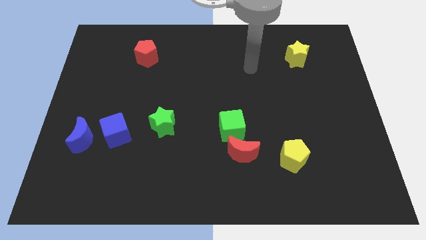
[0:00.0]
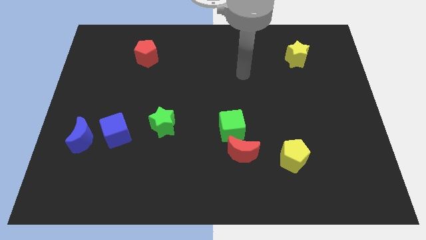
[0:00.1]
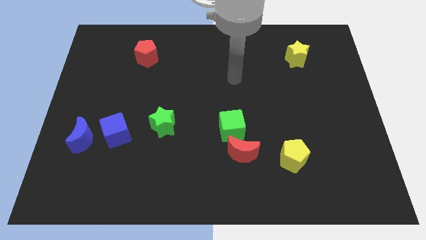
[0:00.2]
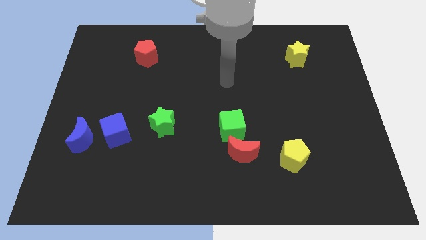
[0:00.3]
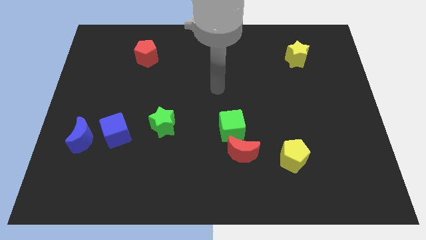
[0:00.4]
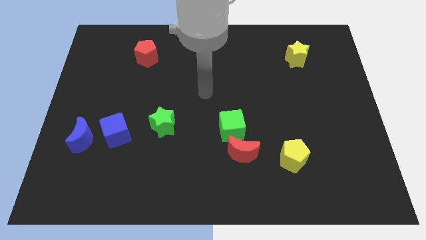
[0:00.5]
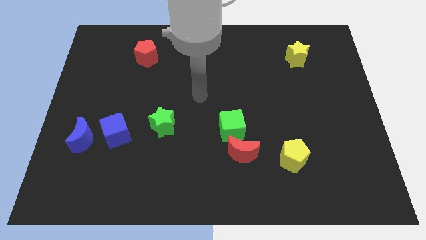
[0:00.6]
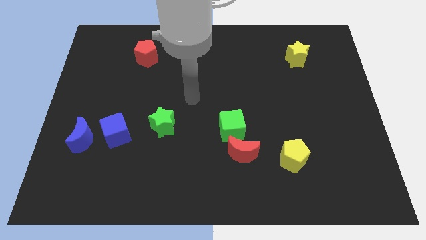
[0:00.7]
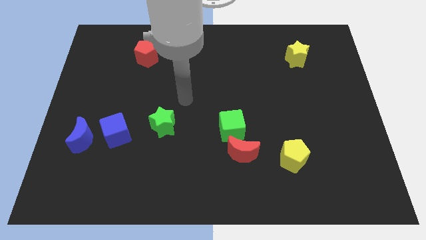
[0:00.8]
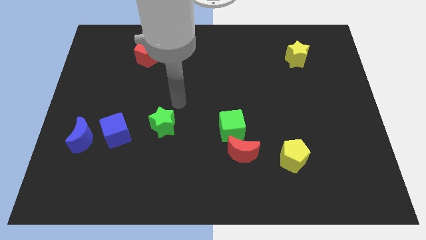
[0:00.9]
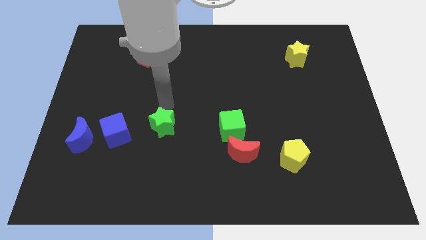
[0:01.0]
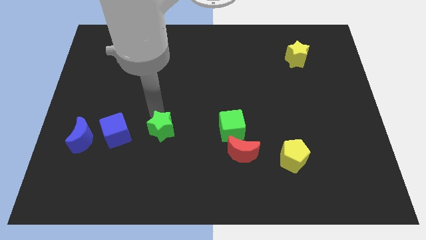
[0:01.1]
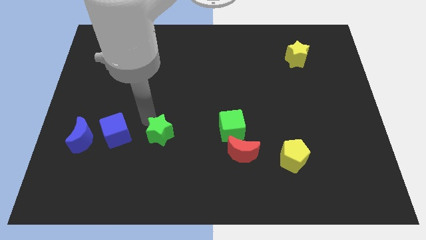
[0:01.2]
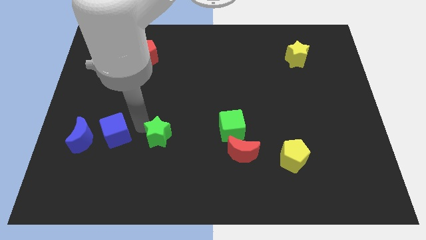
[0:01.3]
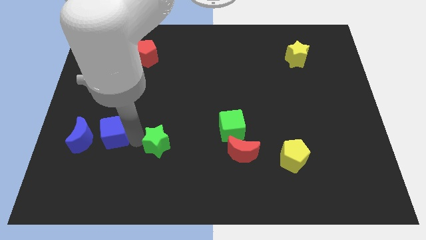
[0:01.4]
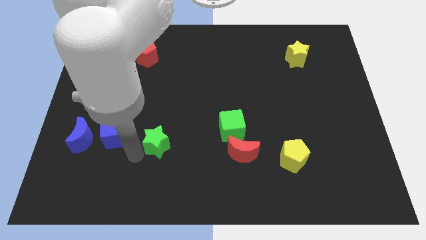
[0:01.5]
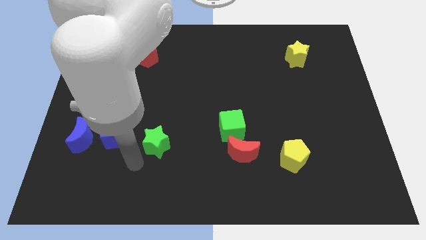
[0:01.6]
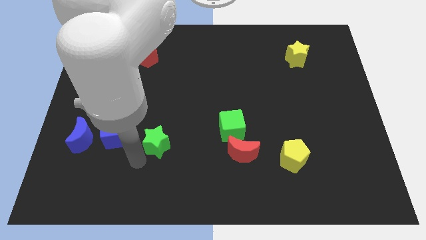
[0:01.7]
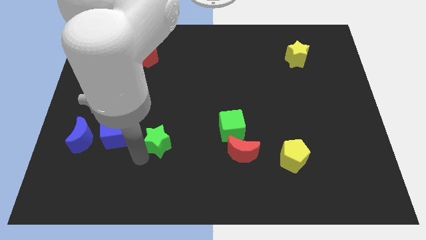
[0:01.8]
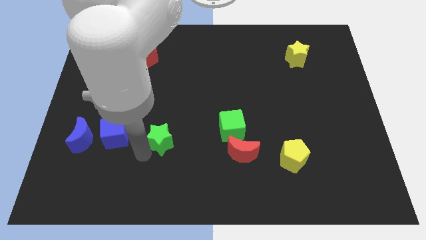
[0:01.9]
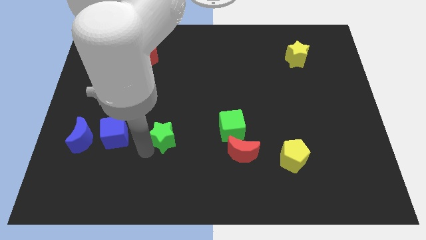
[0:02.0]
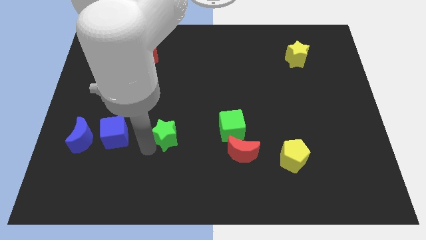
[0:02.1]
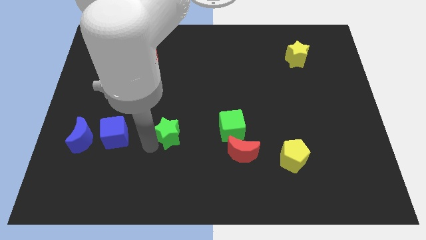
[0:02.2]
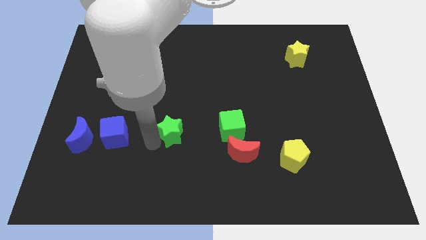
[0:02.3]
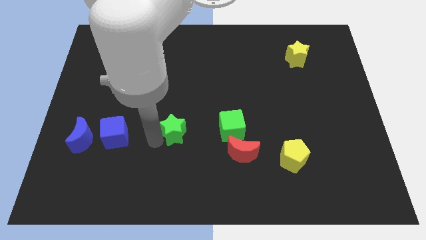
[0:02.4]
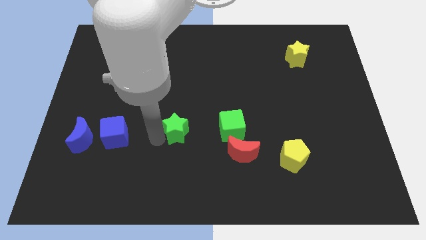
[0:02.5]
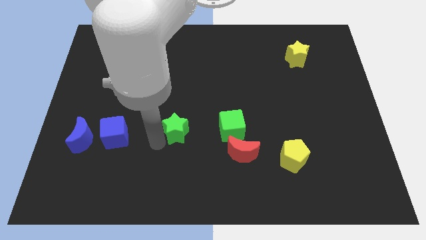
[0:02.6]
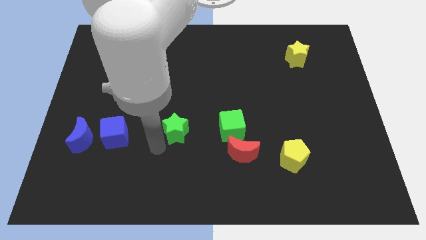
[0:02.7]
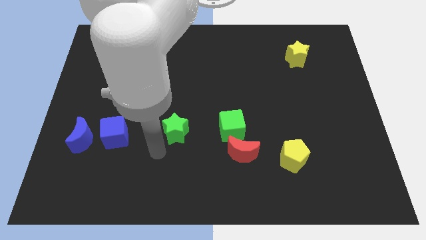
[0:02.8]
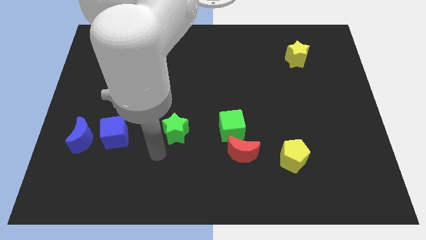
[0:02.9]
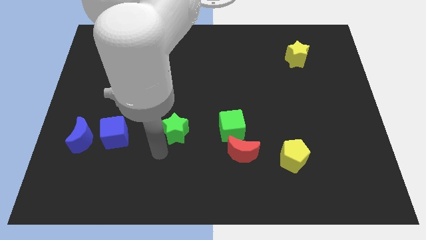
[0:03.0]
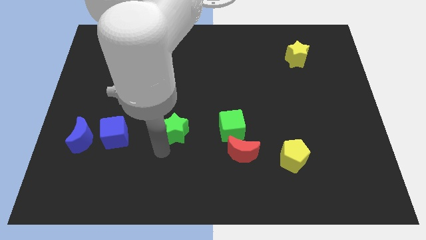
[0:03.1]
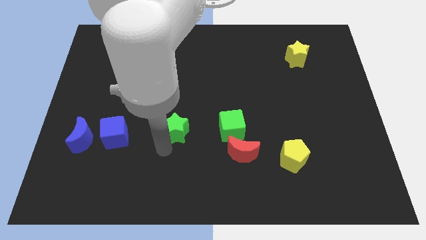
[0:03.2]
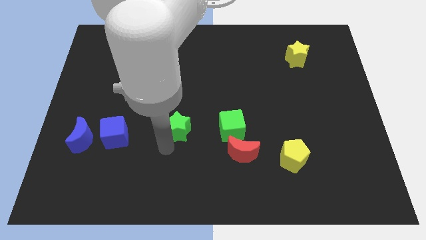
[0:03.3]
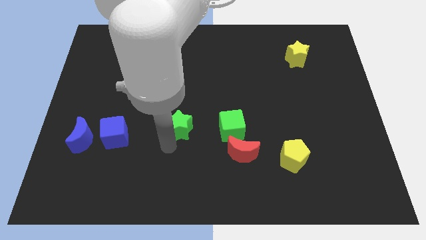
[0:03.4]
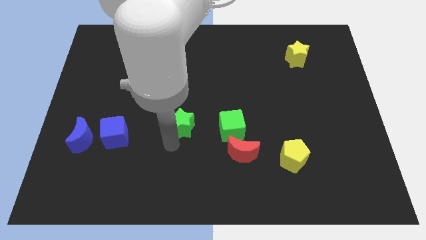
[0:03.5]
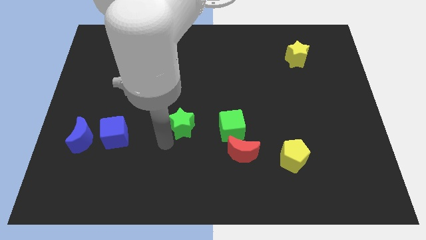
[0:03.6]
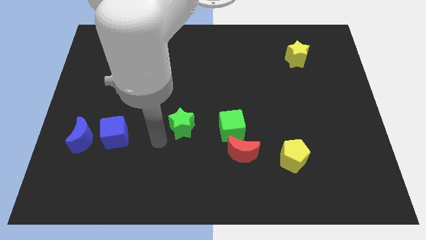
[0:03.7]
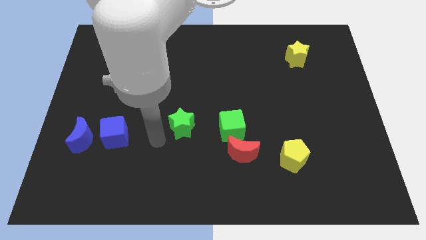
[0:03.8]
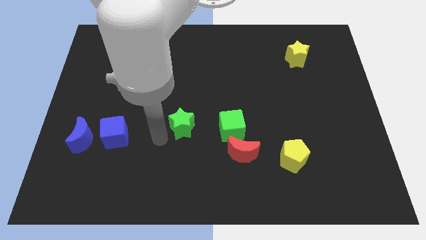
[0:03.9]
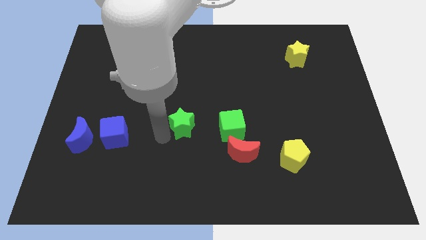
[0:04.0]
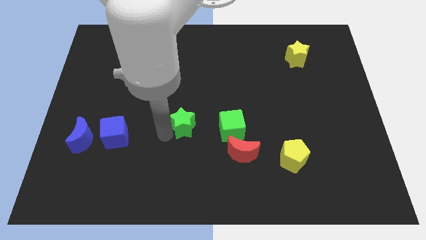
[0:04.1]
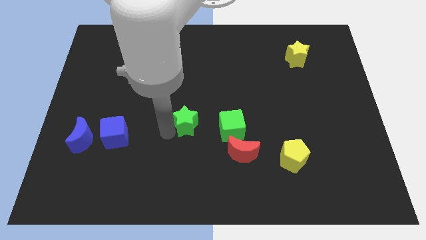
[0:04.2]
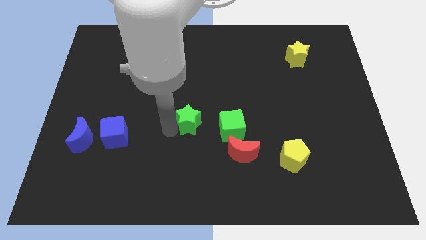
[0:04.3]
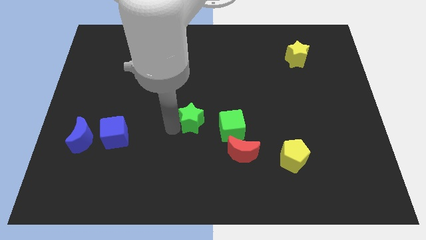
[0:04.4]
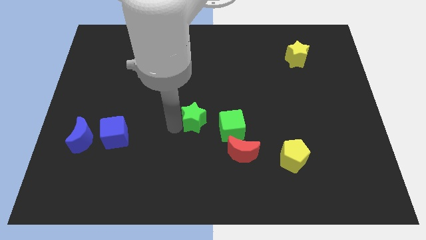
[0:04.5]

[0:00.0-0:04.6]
slightly slide the green star to the right

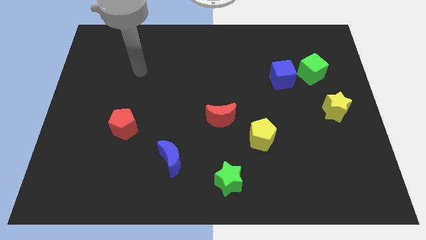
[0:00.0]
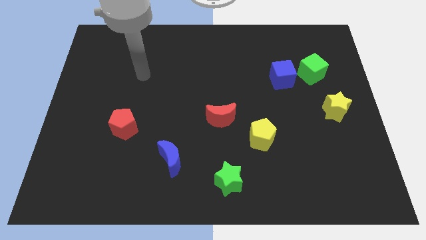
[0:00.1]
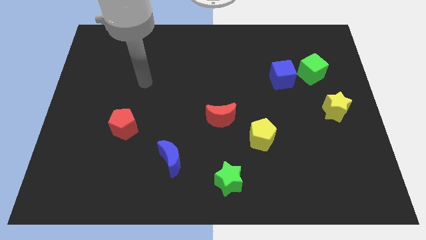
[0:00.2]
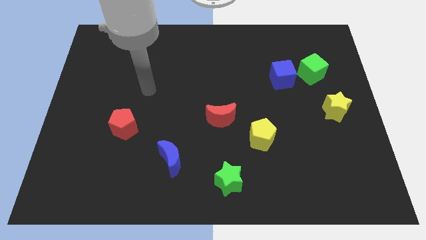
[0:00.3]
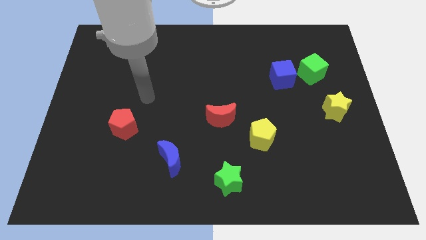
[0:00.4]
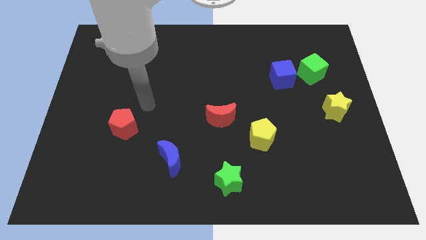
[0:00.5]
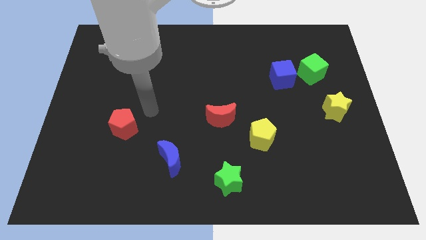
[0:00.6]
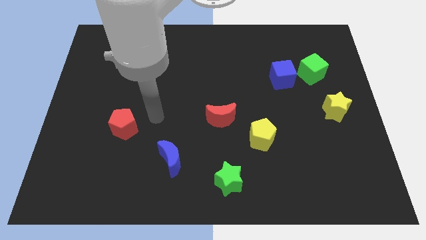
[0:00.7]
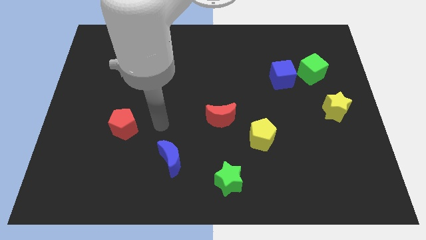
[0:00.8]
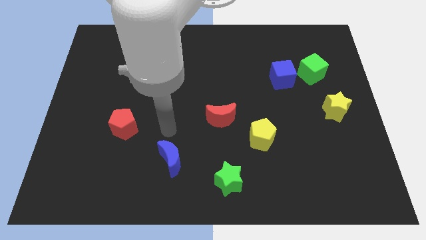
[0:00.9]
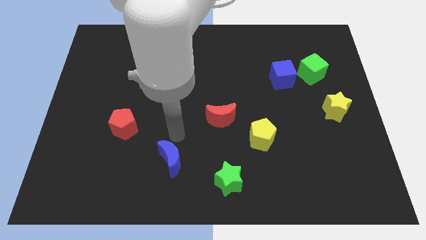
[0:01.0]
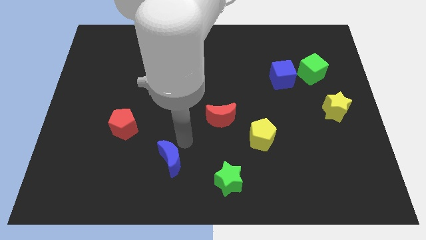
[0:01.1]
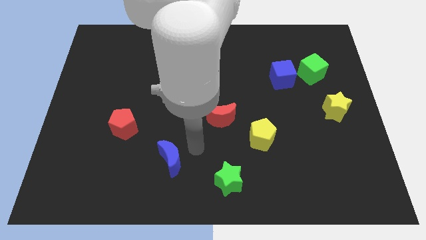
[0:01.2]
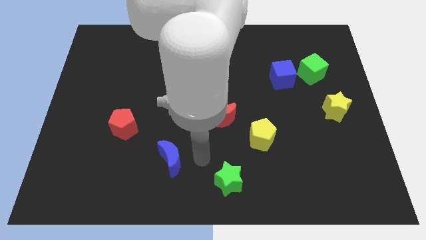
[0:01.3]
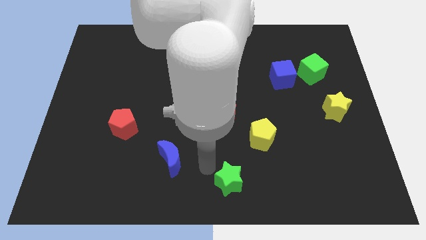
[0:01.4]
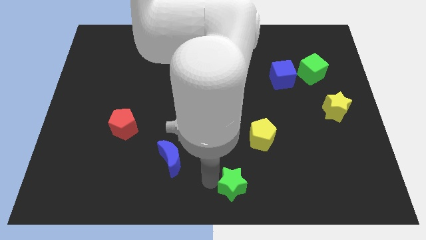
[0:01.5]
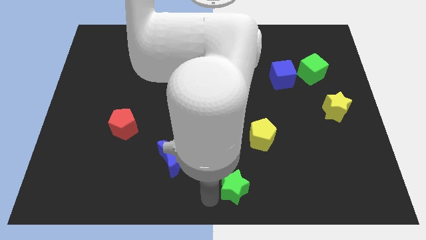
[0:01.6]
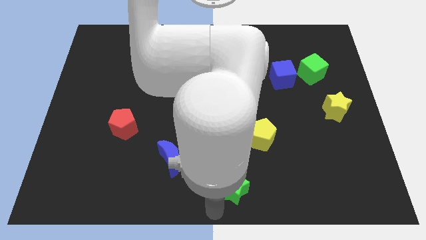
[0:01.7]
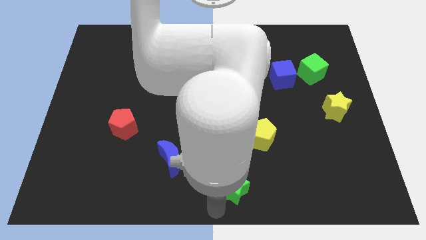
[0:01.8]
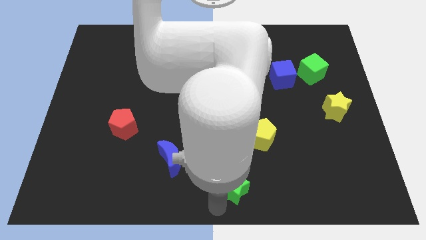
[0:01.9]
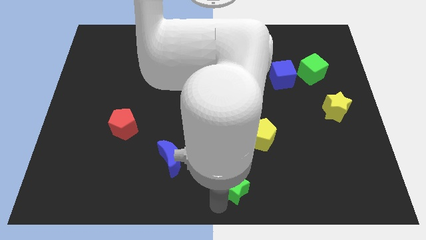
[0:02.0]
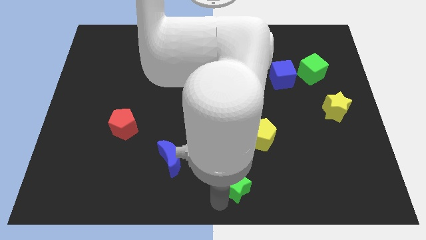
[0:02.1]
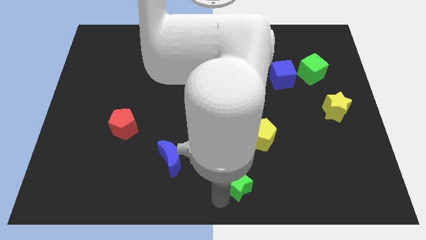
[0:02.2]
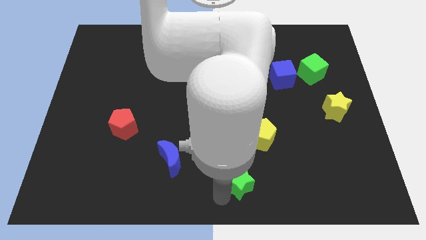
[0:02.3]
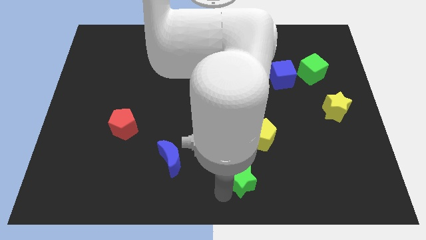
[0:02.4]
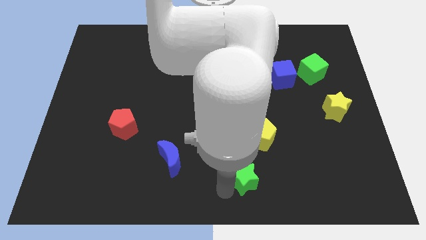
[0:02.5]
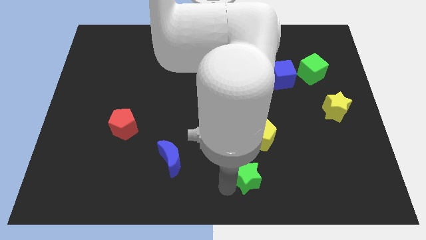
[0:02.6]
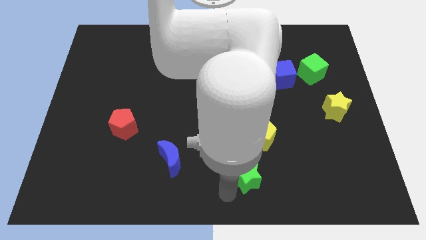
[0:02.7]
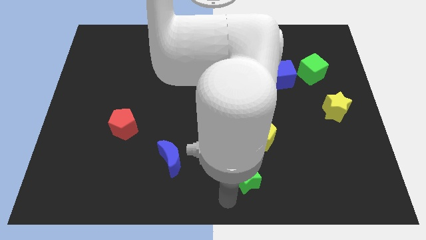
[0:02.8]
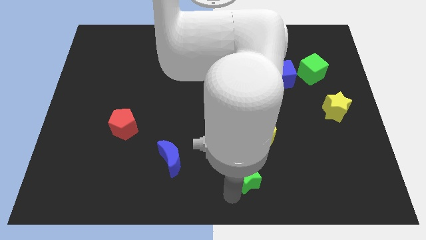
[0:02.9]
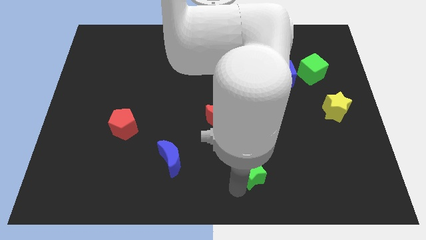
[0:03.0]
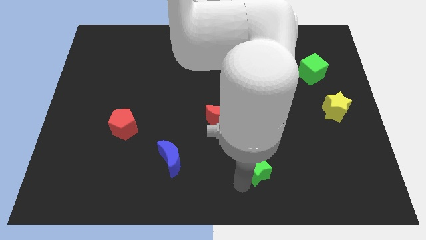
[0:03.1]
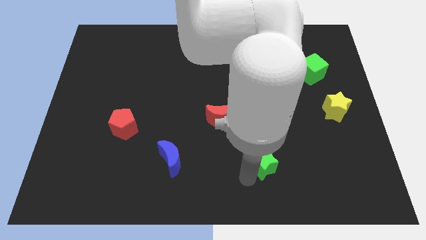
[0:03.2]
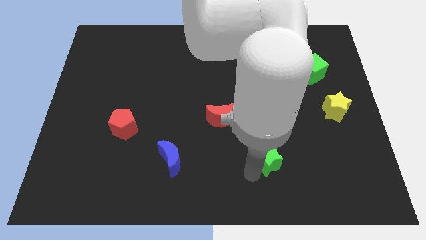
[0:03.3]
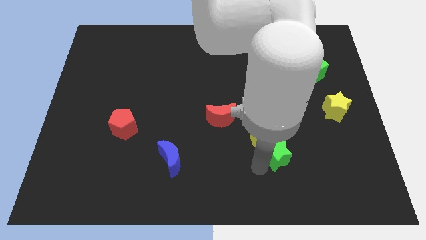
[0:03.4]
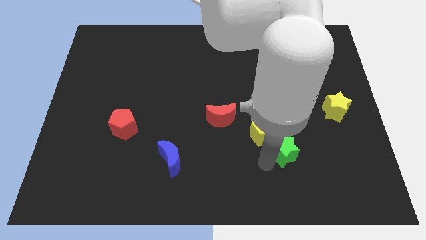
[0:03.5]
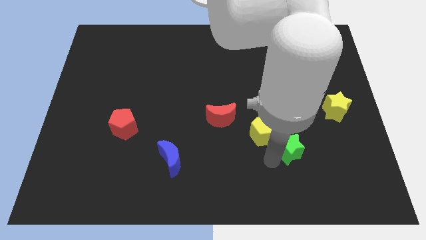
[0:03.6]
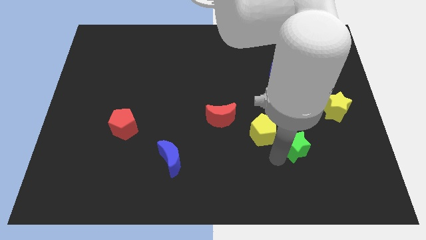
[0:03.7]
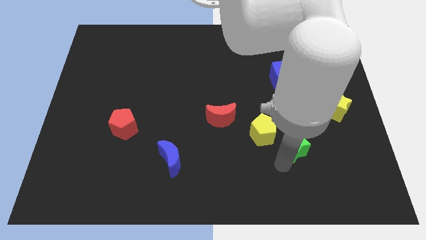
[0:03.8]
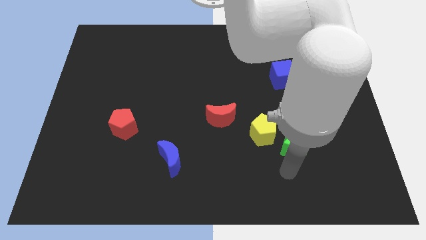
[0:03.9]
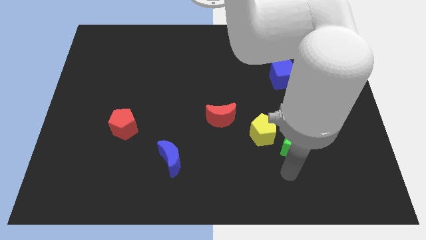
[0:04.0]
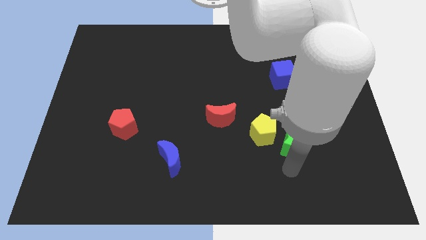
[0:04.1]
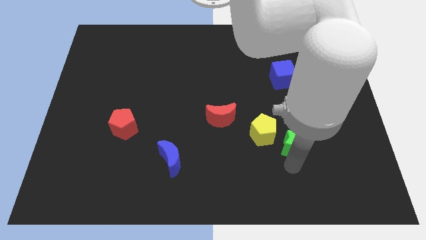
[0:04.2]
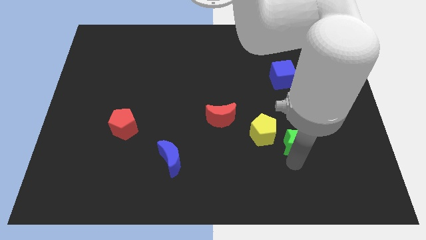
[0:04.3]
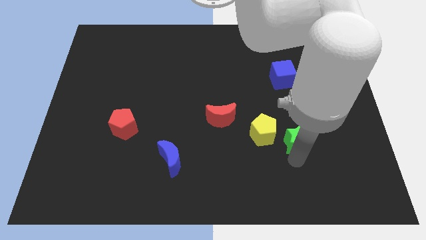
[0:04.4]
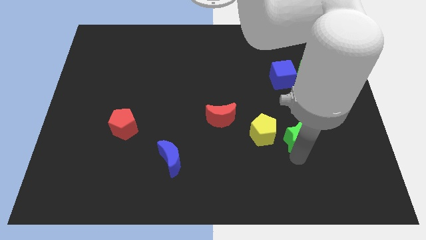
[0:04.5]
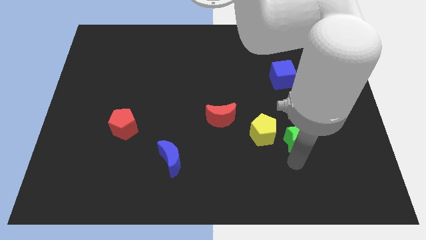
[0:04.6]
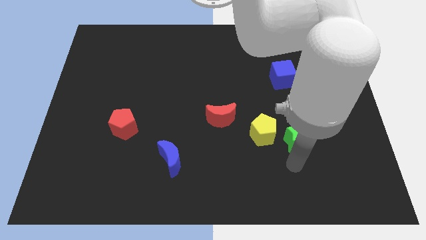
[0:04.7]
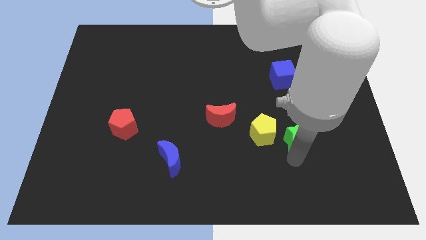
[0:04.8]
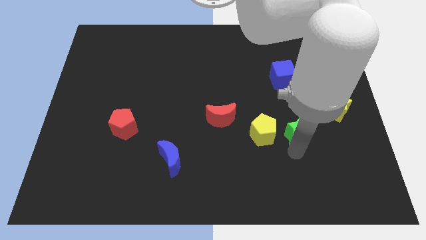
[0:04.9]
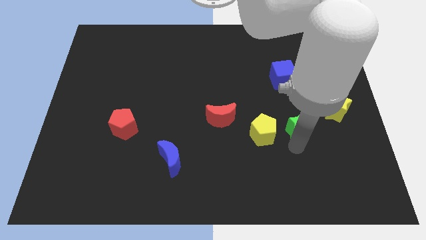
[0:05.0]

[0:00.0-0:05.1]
push the green star upwards and to the right diagonally
